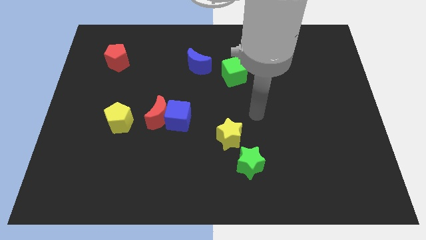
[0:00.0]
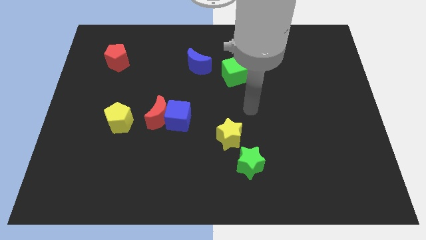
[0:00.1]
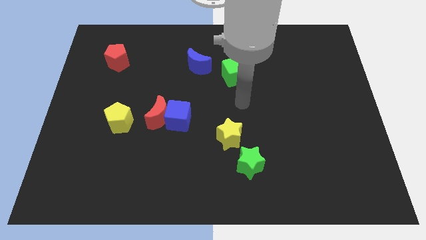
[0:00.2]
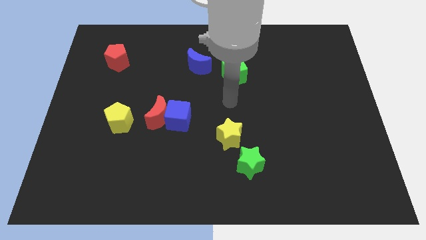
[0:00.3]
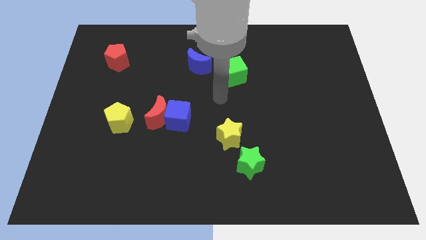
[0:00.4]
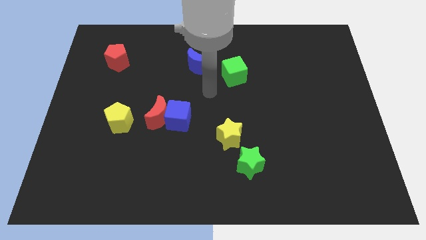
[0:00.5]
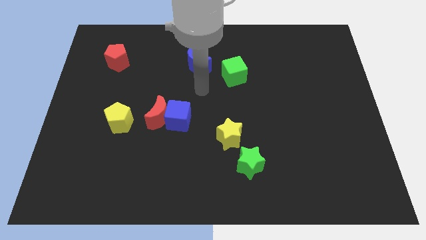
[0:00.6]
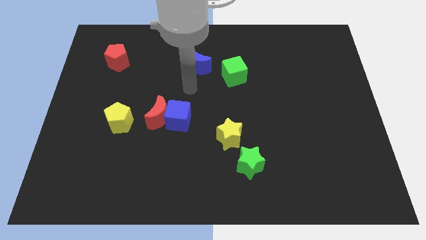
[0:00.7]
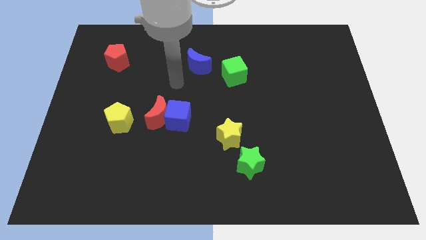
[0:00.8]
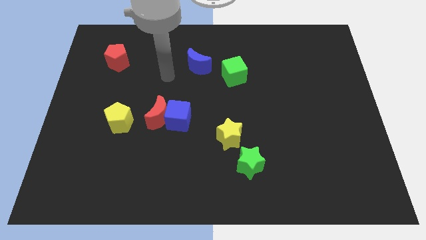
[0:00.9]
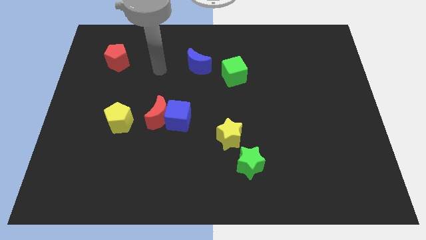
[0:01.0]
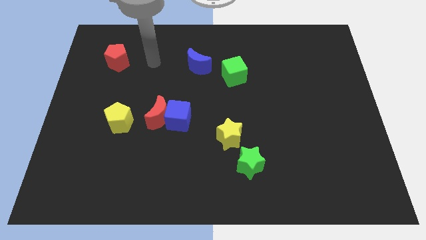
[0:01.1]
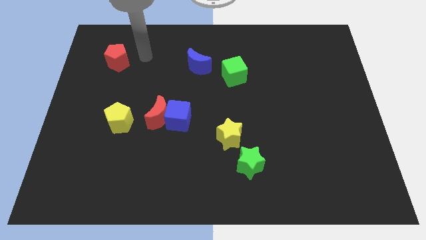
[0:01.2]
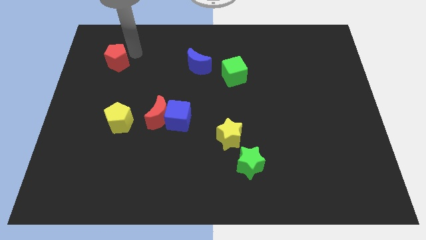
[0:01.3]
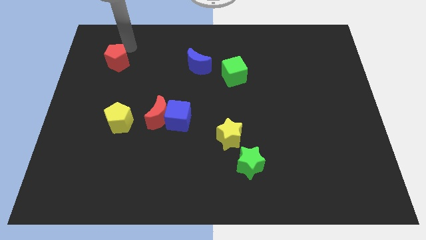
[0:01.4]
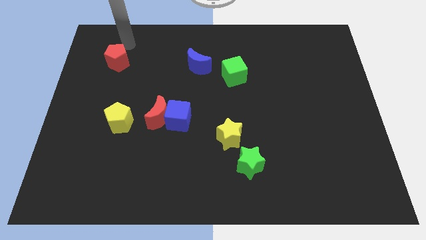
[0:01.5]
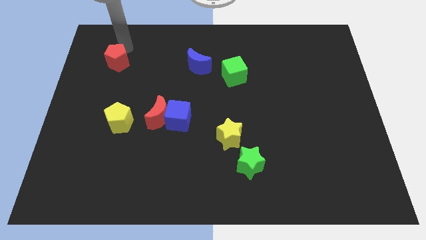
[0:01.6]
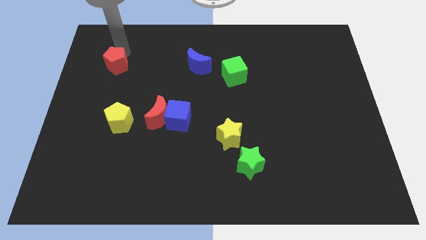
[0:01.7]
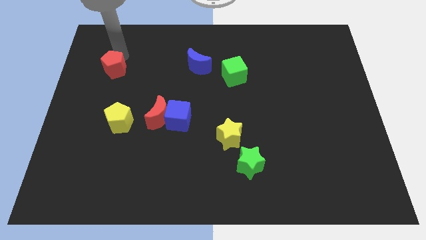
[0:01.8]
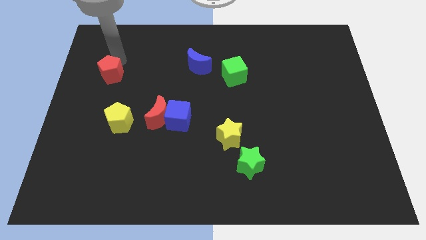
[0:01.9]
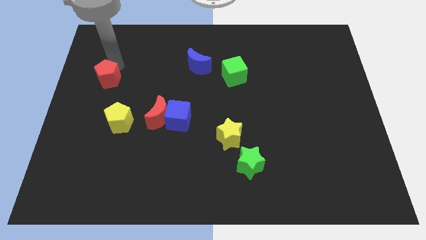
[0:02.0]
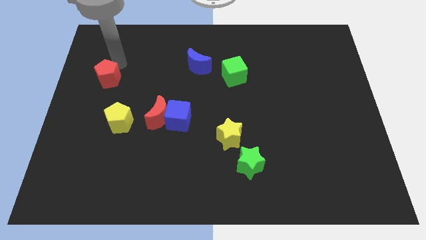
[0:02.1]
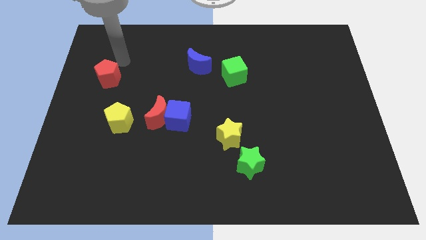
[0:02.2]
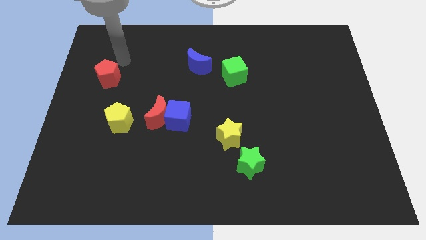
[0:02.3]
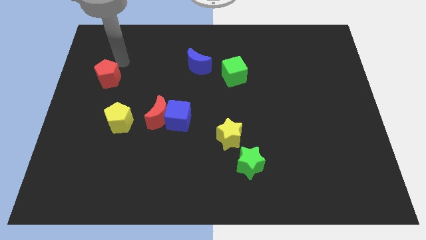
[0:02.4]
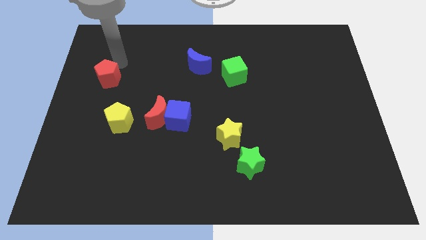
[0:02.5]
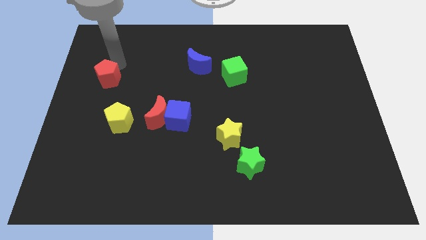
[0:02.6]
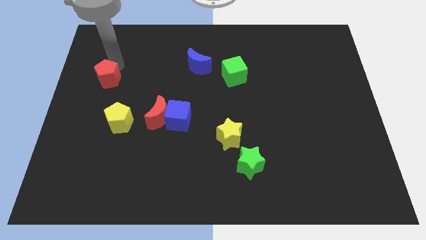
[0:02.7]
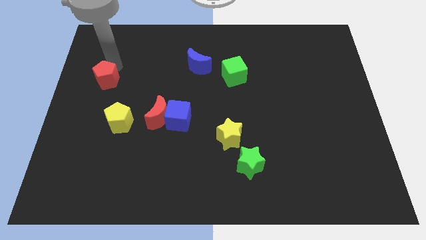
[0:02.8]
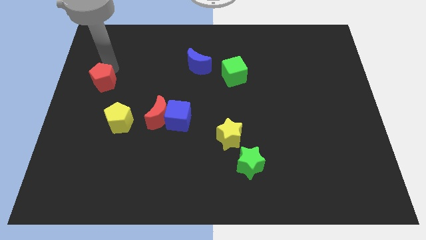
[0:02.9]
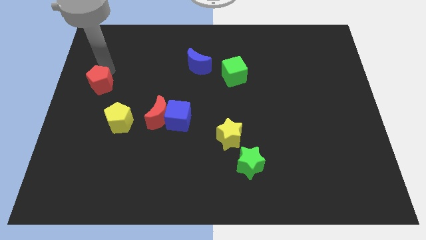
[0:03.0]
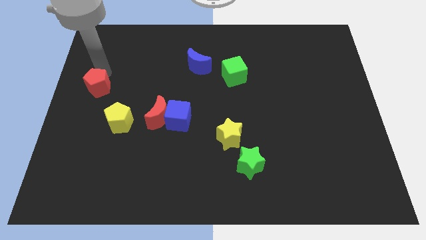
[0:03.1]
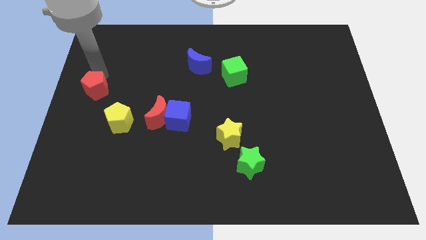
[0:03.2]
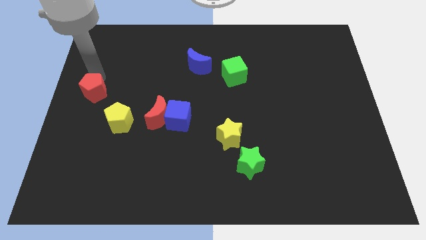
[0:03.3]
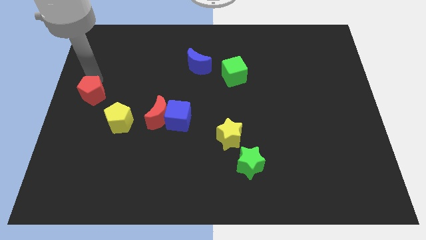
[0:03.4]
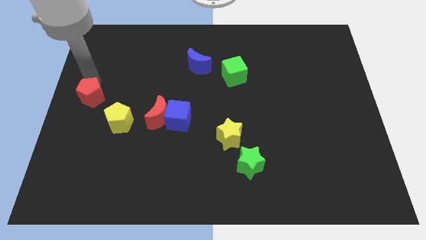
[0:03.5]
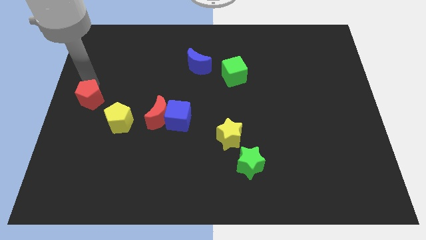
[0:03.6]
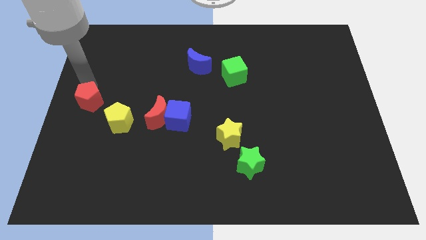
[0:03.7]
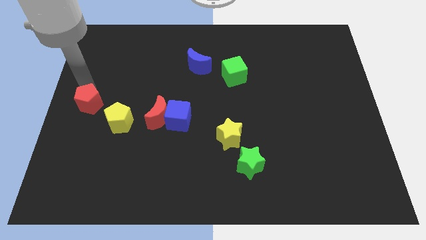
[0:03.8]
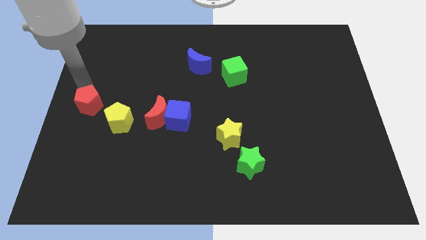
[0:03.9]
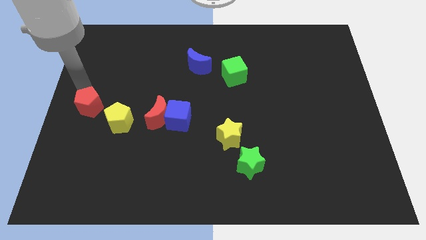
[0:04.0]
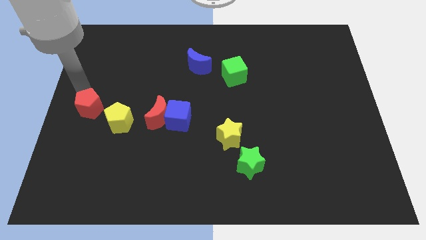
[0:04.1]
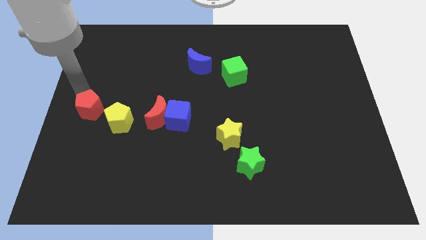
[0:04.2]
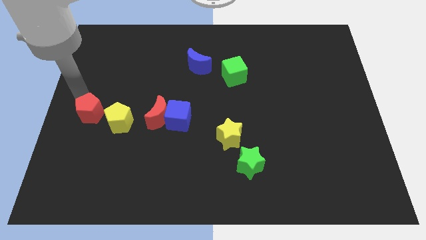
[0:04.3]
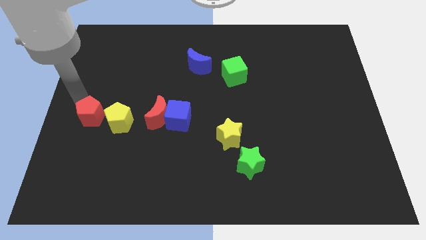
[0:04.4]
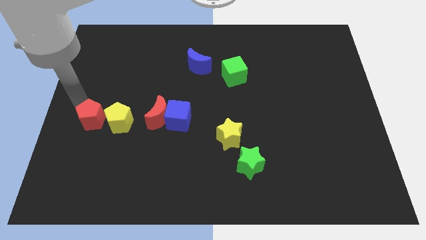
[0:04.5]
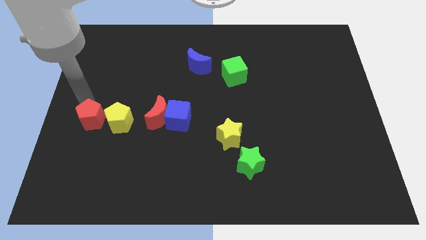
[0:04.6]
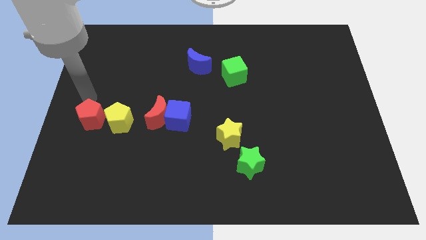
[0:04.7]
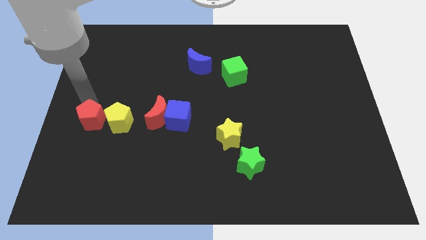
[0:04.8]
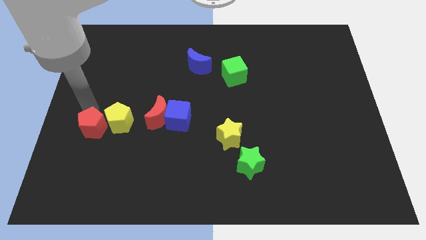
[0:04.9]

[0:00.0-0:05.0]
push the red pentagon downwards

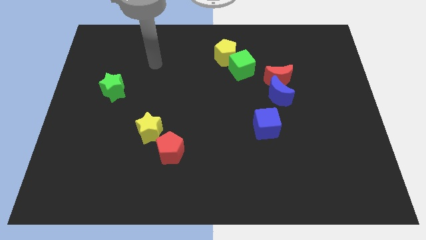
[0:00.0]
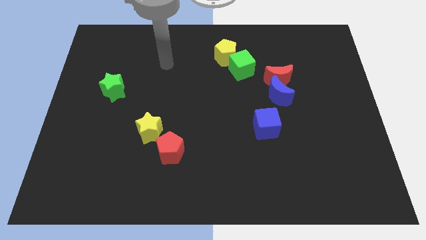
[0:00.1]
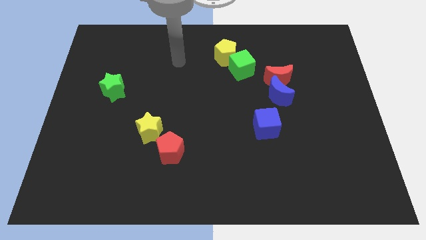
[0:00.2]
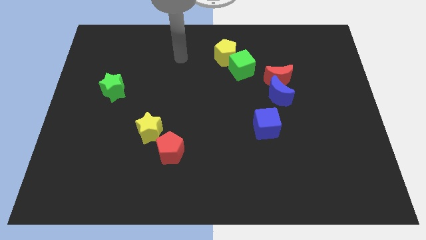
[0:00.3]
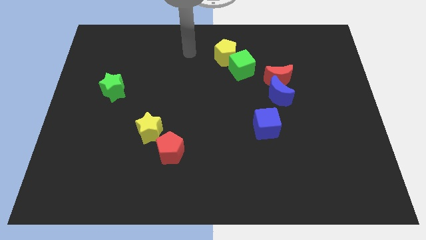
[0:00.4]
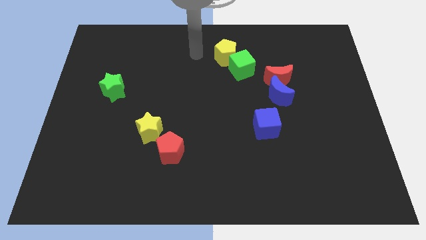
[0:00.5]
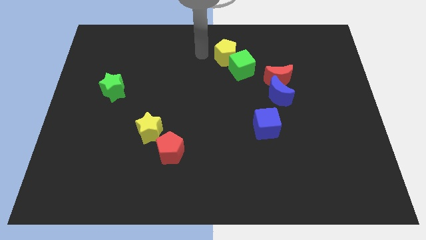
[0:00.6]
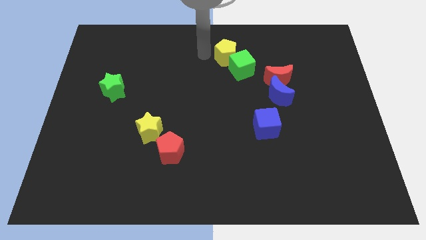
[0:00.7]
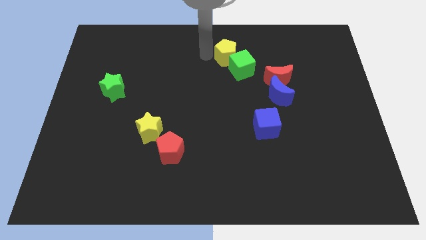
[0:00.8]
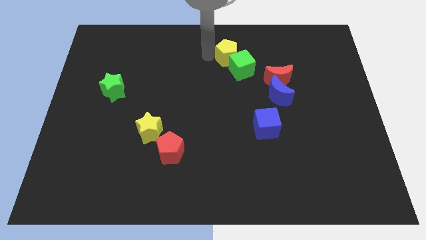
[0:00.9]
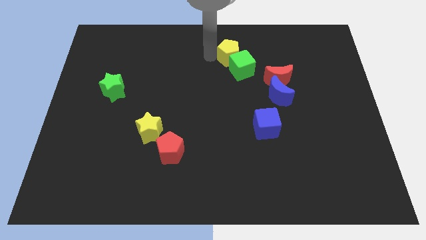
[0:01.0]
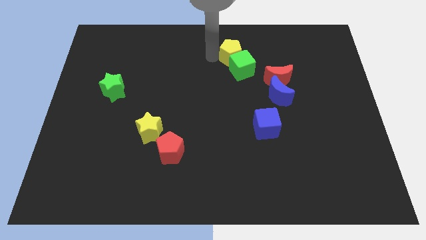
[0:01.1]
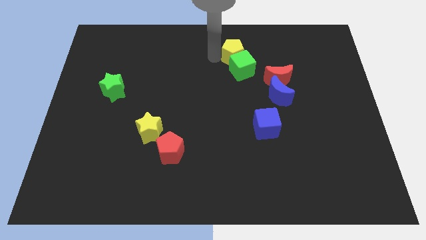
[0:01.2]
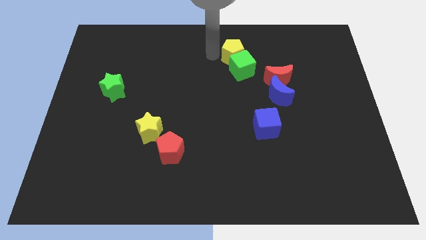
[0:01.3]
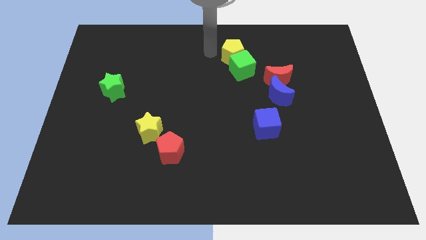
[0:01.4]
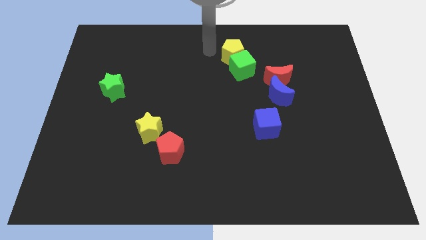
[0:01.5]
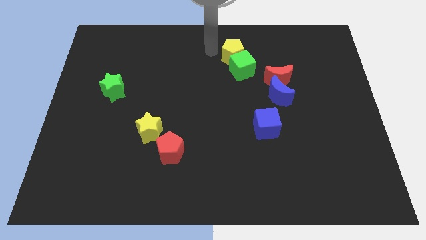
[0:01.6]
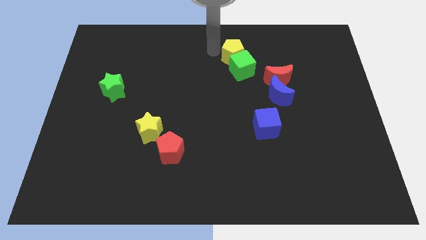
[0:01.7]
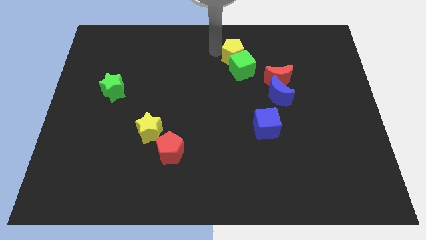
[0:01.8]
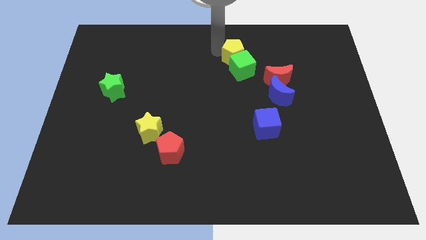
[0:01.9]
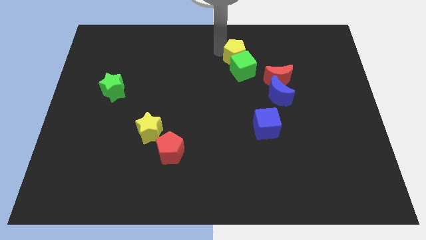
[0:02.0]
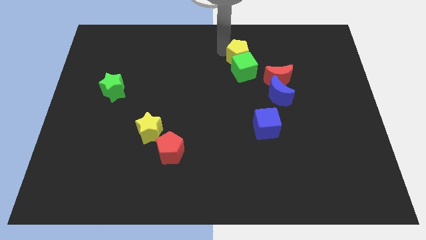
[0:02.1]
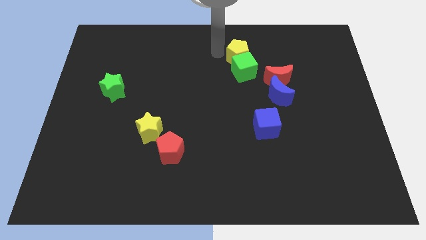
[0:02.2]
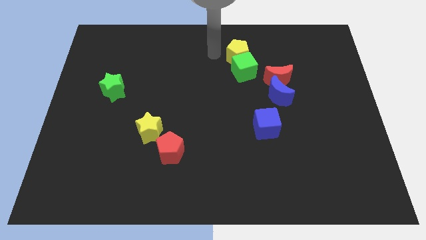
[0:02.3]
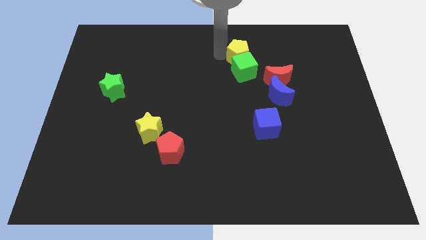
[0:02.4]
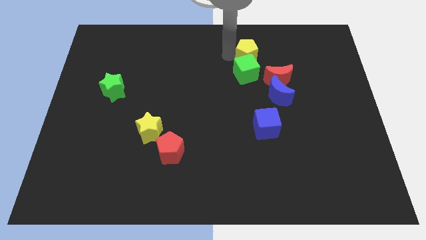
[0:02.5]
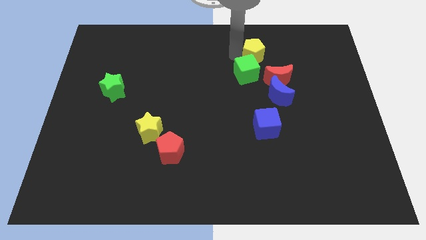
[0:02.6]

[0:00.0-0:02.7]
push the yellow pentagon a bit right
